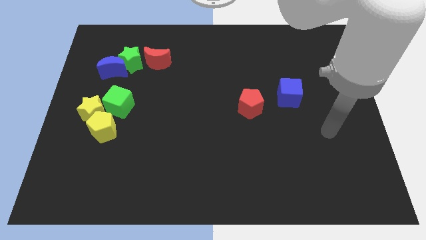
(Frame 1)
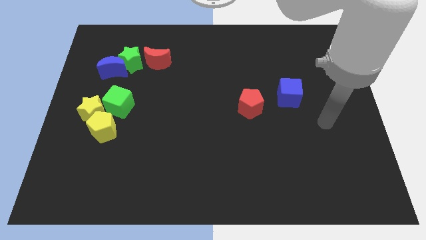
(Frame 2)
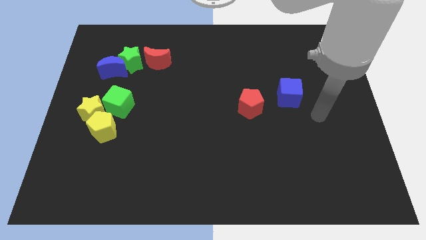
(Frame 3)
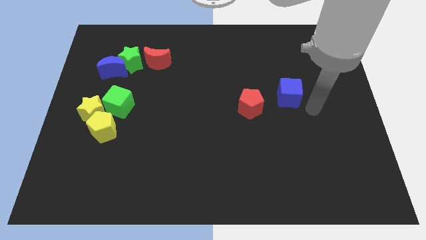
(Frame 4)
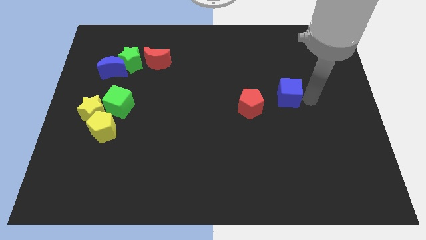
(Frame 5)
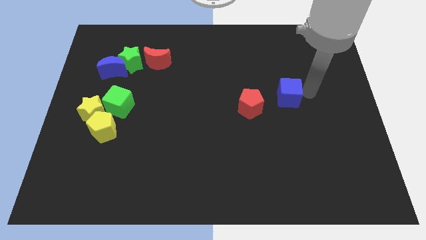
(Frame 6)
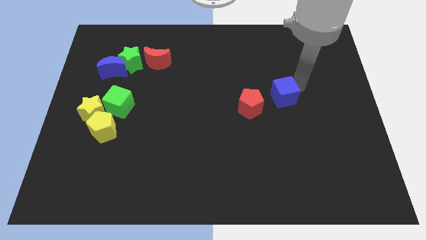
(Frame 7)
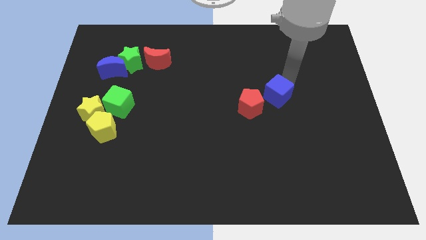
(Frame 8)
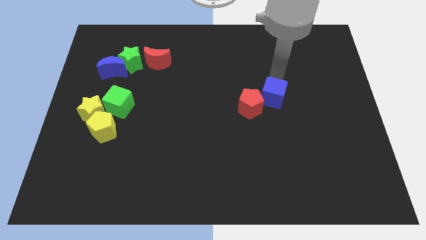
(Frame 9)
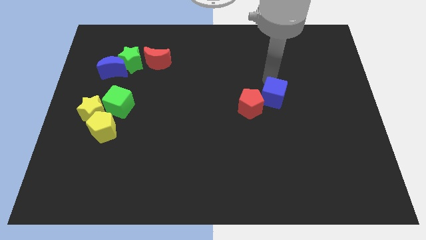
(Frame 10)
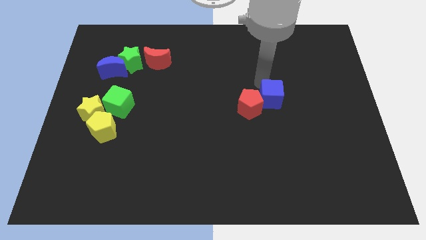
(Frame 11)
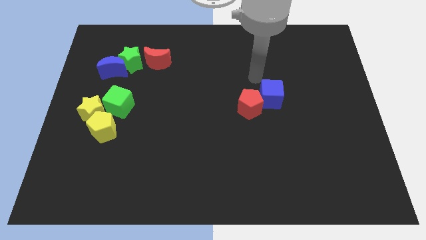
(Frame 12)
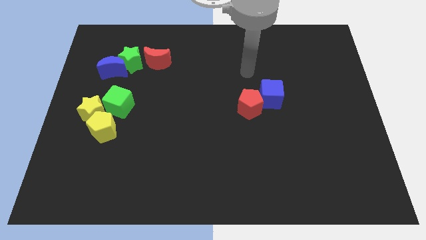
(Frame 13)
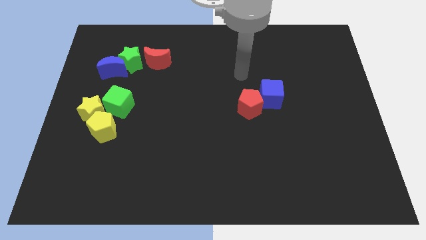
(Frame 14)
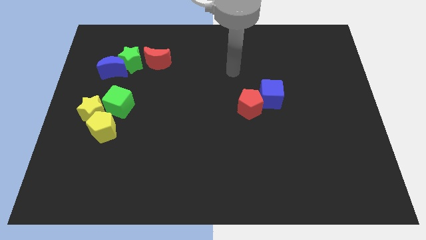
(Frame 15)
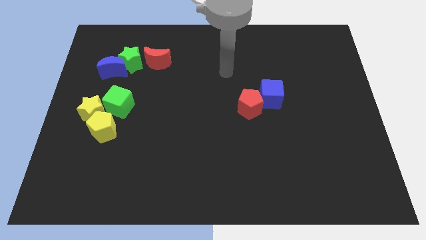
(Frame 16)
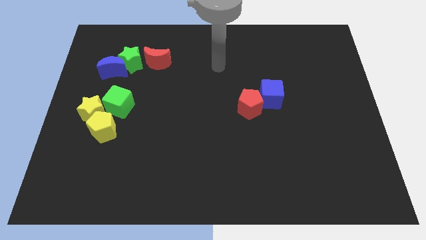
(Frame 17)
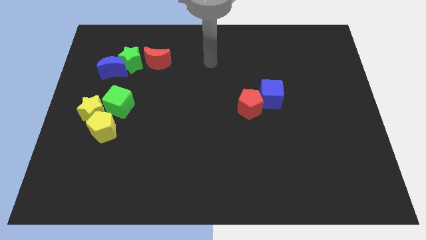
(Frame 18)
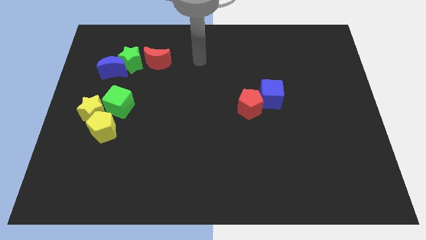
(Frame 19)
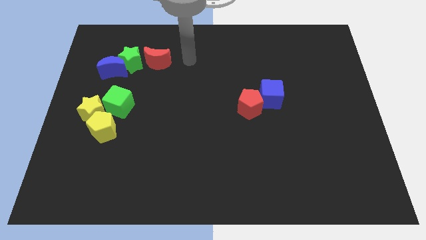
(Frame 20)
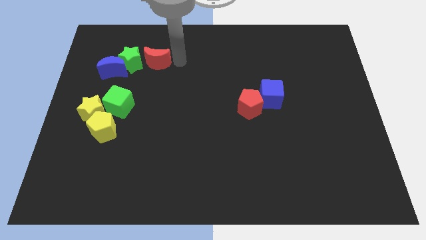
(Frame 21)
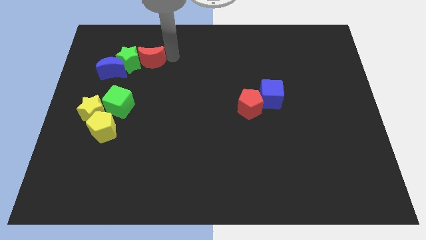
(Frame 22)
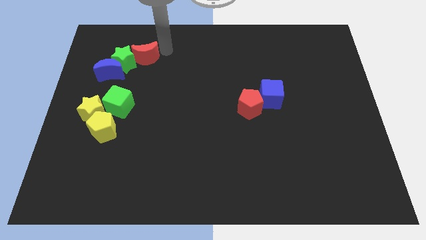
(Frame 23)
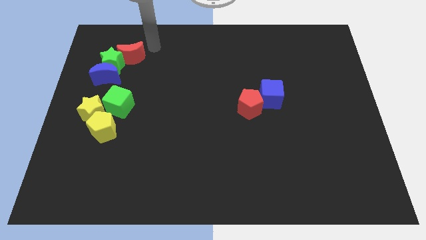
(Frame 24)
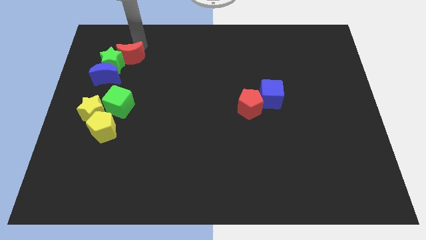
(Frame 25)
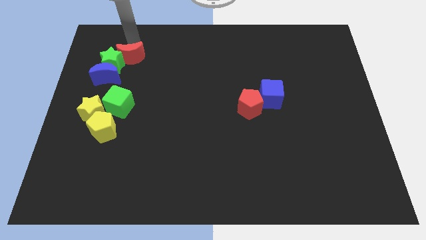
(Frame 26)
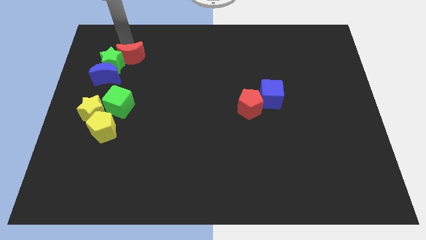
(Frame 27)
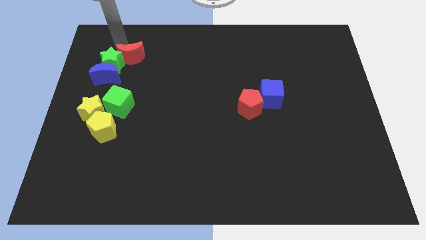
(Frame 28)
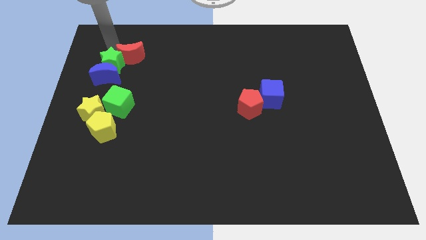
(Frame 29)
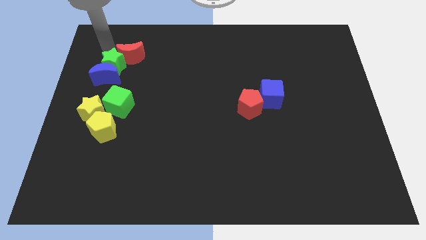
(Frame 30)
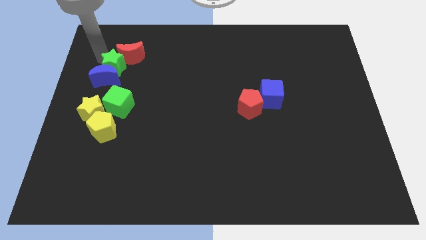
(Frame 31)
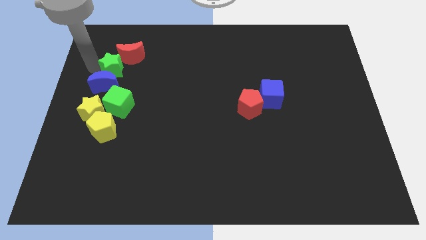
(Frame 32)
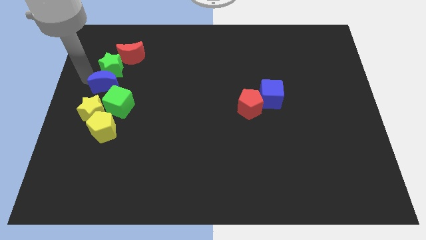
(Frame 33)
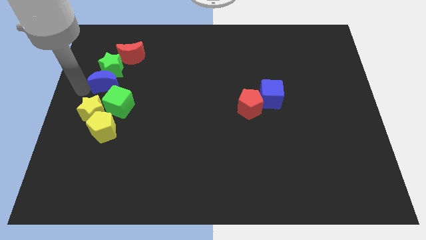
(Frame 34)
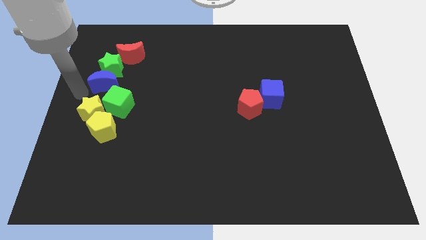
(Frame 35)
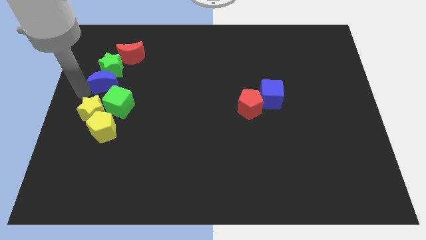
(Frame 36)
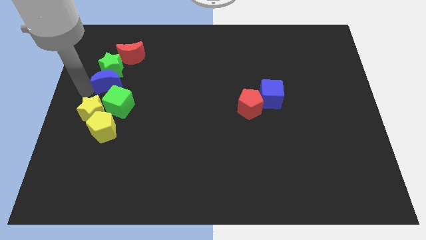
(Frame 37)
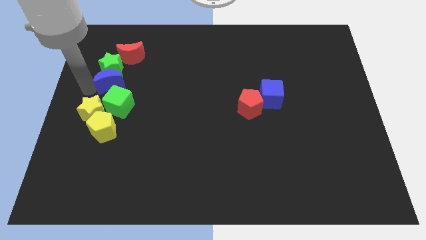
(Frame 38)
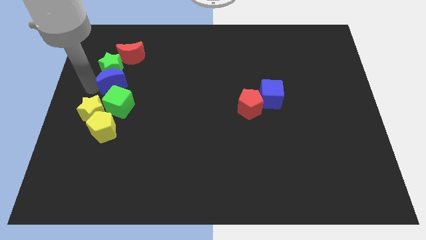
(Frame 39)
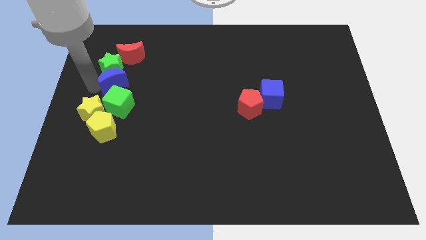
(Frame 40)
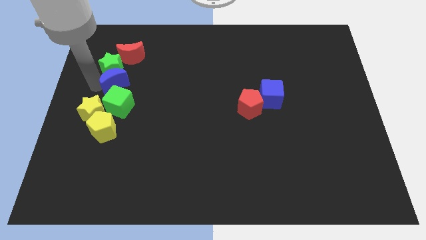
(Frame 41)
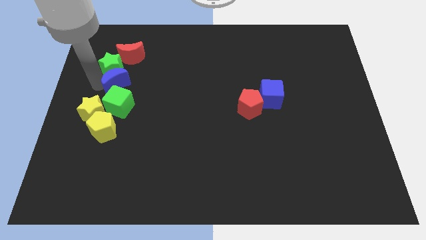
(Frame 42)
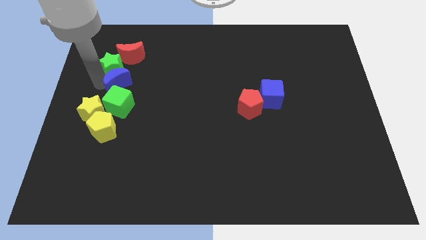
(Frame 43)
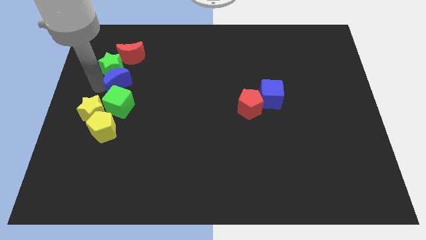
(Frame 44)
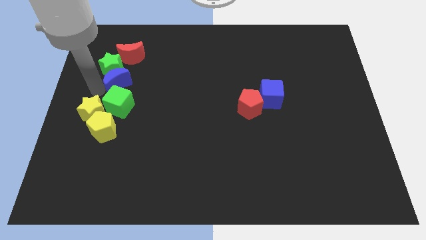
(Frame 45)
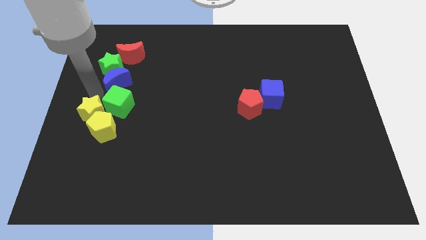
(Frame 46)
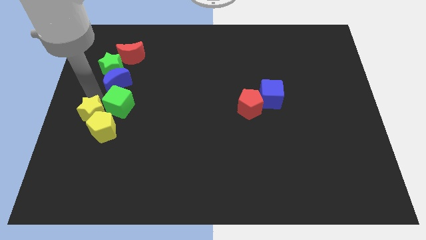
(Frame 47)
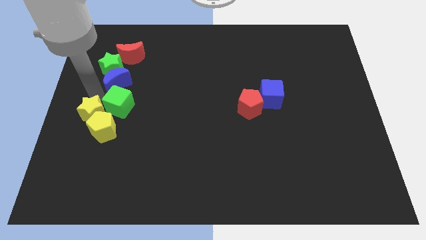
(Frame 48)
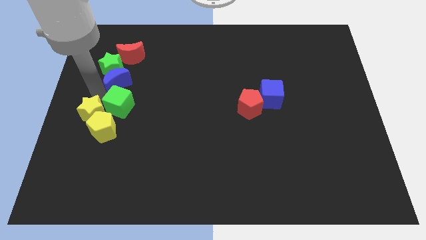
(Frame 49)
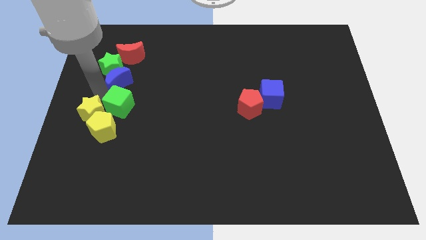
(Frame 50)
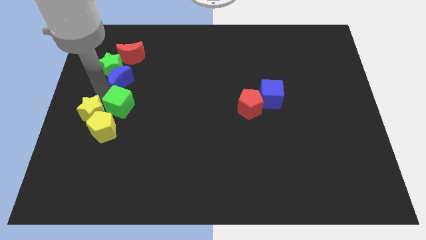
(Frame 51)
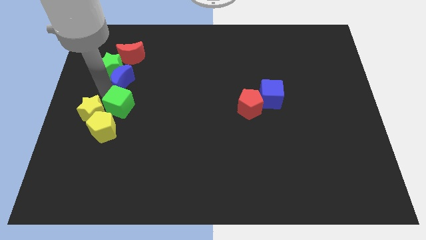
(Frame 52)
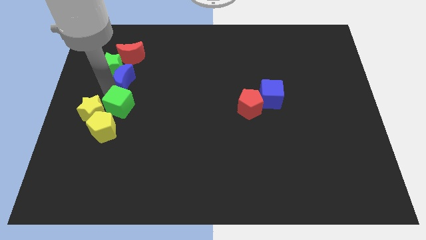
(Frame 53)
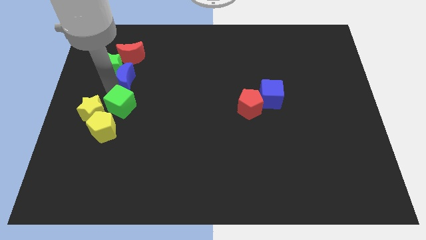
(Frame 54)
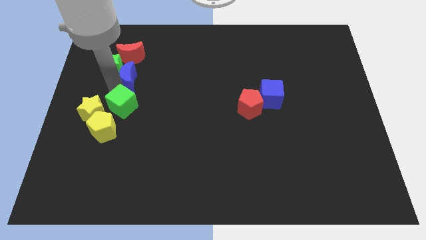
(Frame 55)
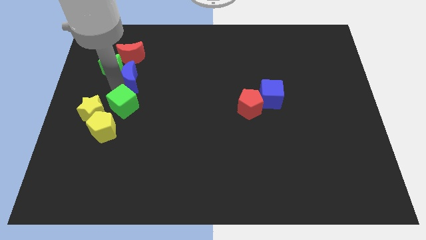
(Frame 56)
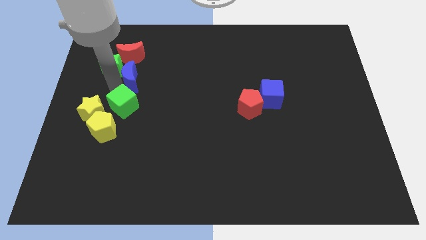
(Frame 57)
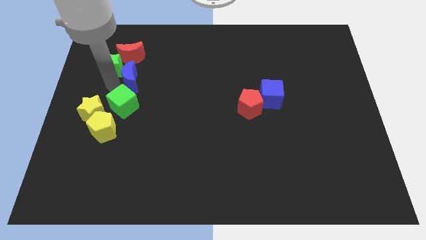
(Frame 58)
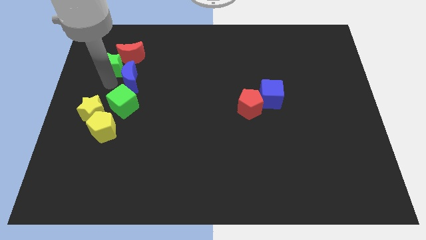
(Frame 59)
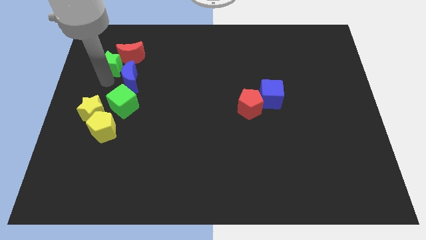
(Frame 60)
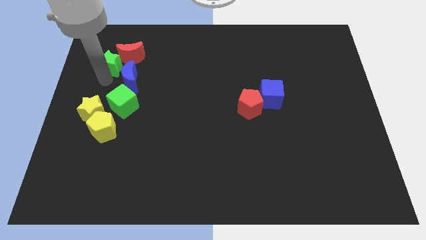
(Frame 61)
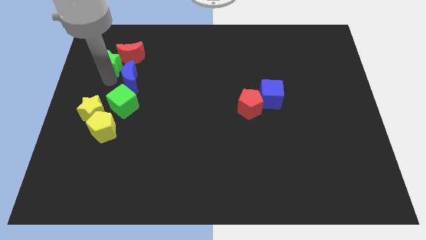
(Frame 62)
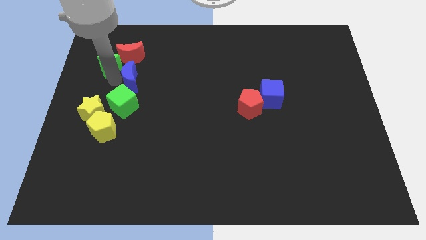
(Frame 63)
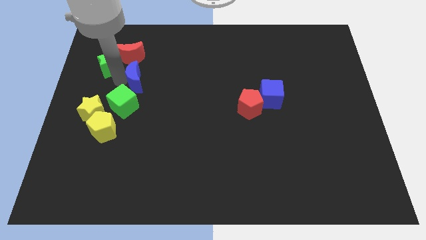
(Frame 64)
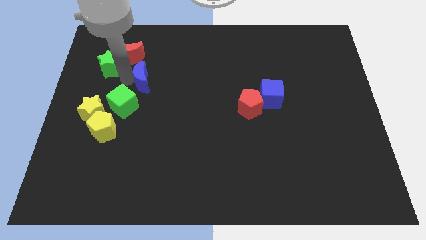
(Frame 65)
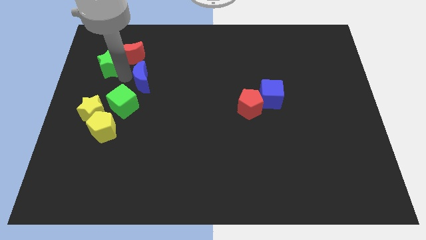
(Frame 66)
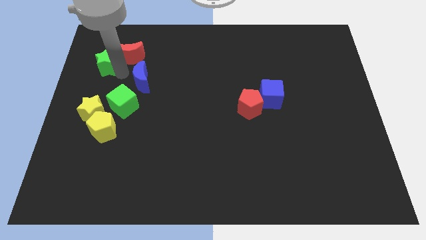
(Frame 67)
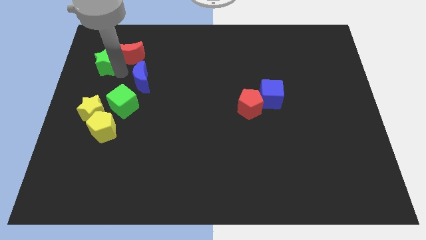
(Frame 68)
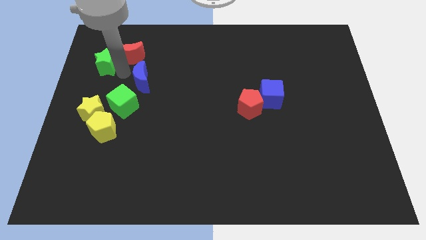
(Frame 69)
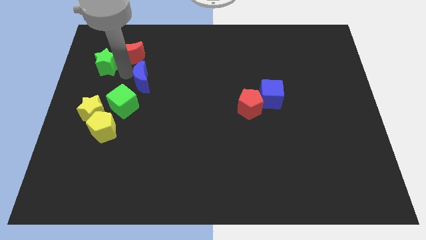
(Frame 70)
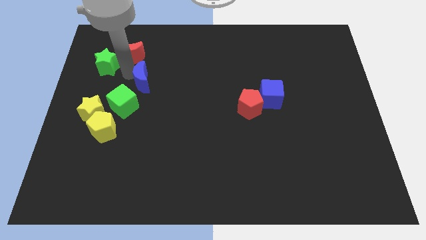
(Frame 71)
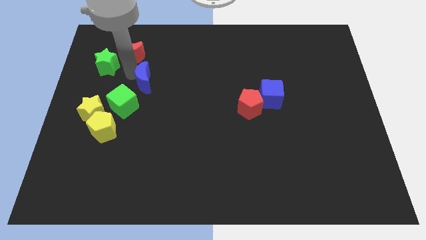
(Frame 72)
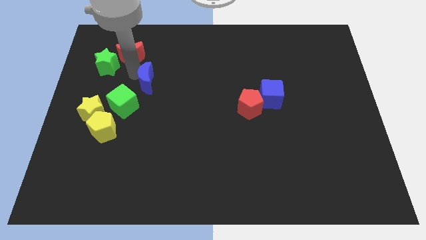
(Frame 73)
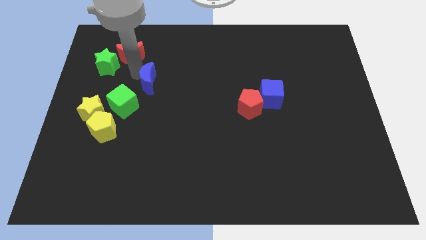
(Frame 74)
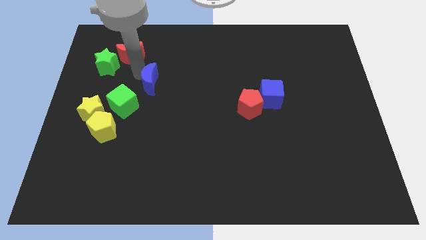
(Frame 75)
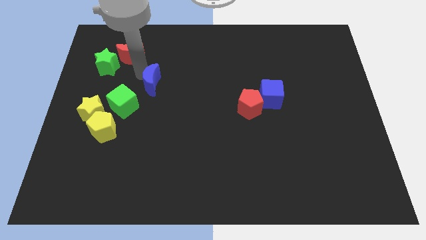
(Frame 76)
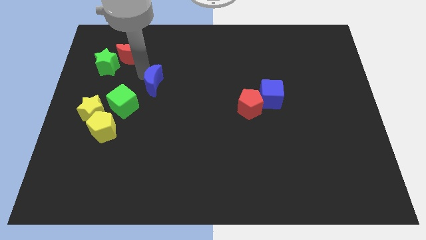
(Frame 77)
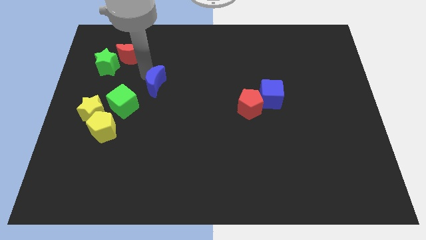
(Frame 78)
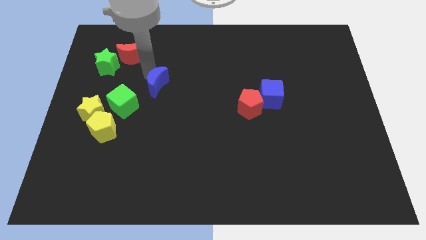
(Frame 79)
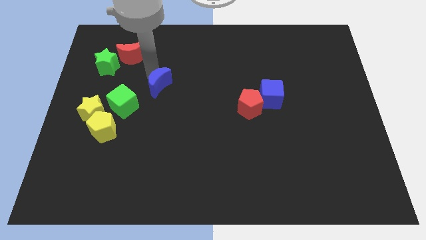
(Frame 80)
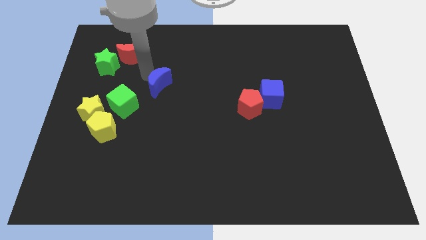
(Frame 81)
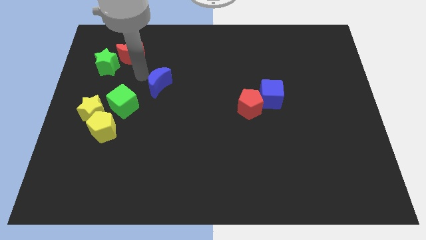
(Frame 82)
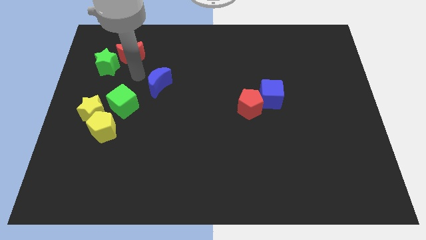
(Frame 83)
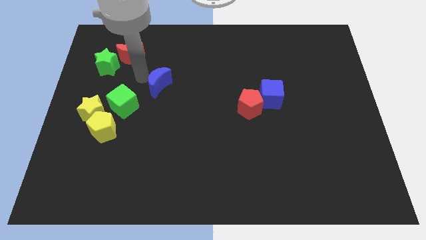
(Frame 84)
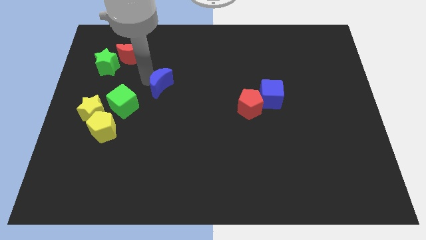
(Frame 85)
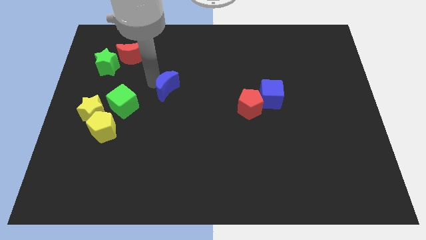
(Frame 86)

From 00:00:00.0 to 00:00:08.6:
slide the blue moon to the center of the board
